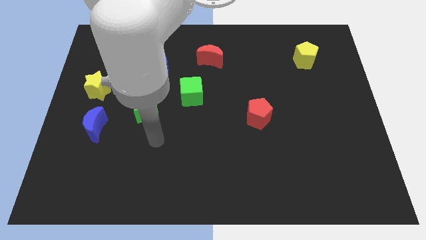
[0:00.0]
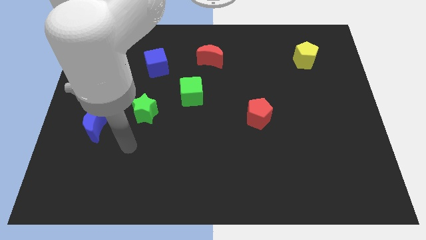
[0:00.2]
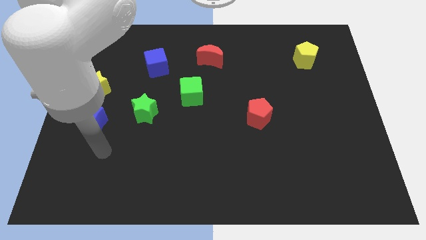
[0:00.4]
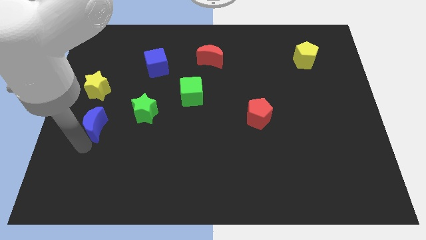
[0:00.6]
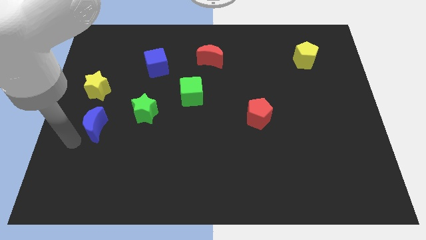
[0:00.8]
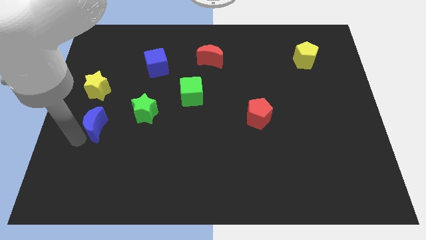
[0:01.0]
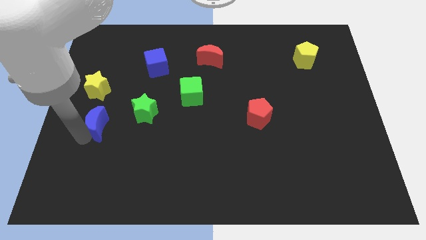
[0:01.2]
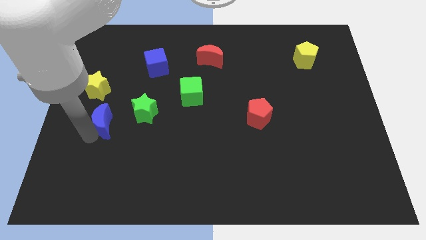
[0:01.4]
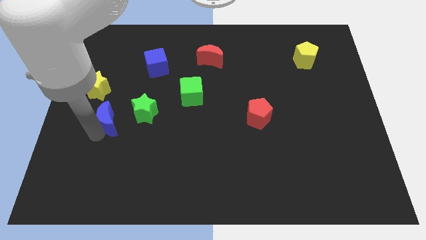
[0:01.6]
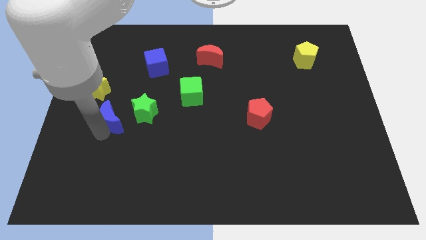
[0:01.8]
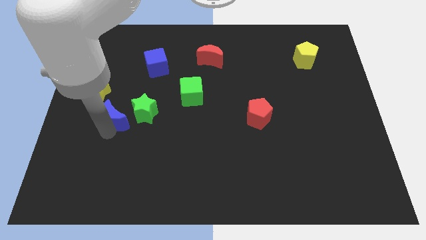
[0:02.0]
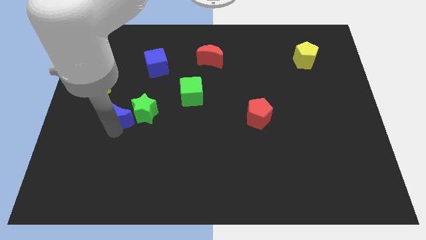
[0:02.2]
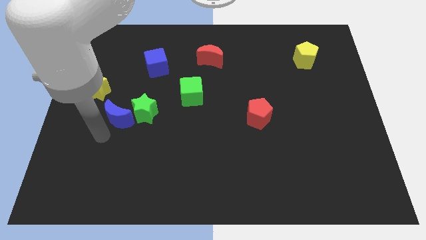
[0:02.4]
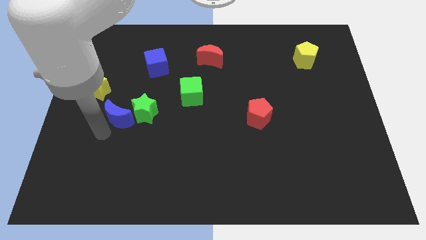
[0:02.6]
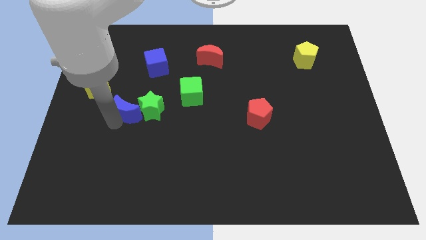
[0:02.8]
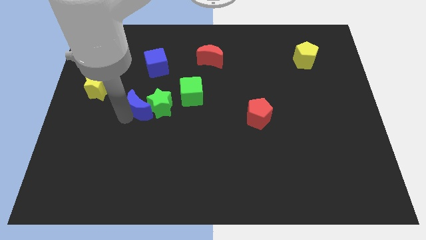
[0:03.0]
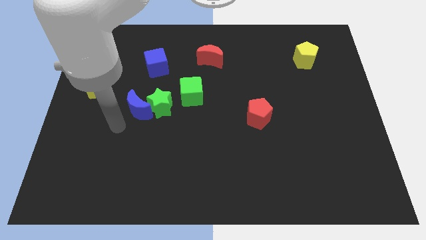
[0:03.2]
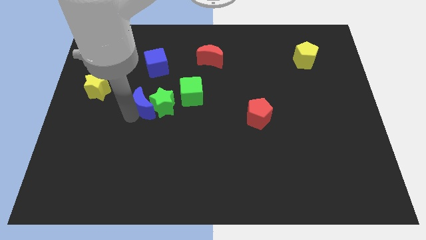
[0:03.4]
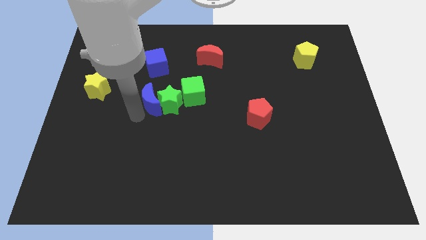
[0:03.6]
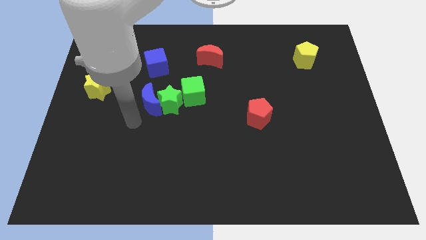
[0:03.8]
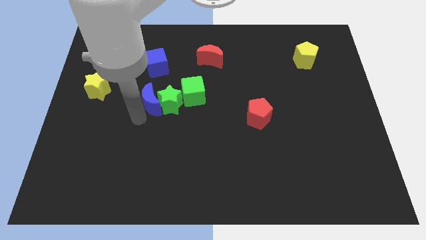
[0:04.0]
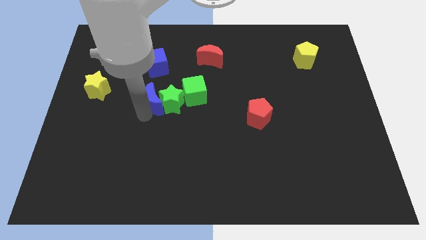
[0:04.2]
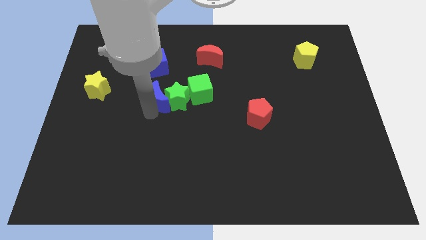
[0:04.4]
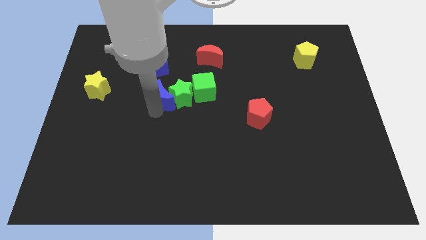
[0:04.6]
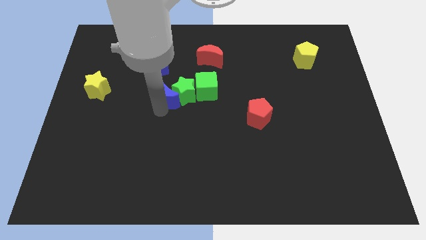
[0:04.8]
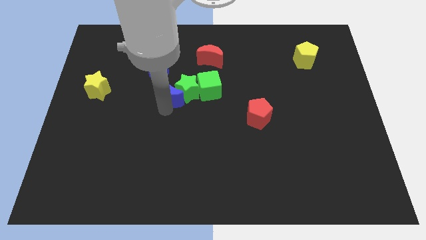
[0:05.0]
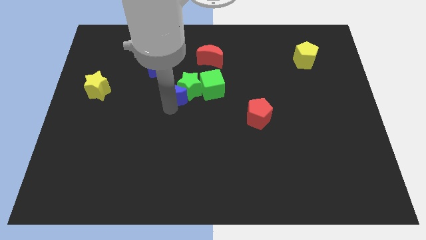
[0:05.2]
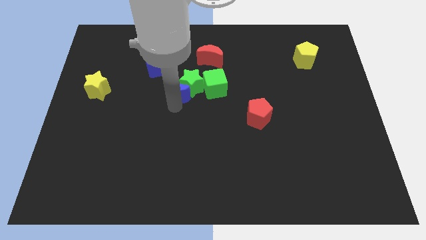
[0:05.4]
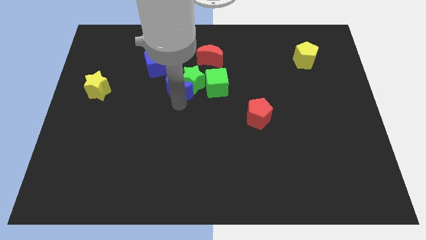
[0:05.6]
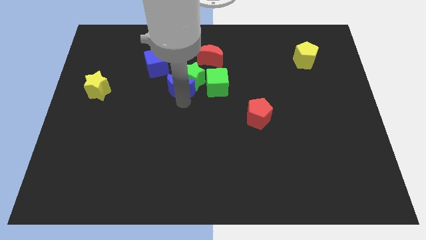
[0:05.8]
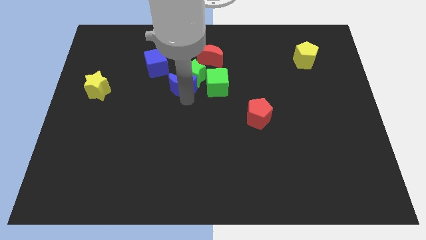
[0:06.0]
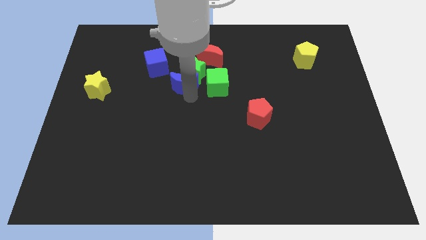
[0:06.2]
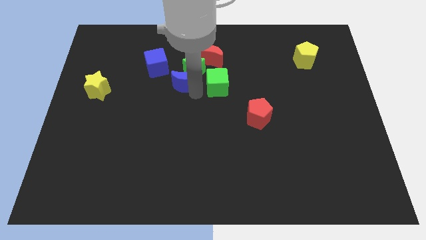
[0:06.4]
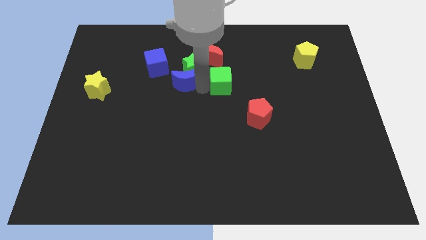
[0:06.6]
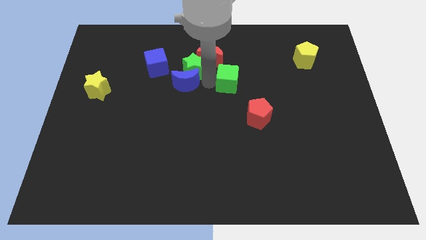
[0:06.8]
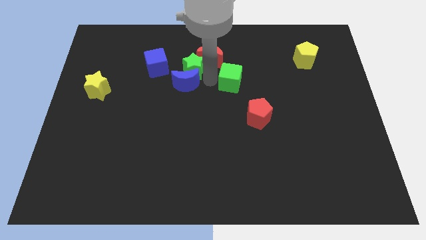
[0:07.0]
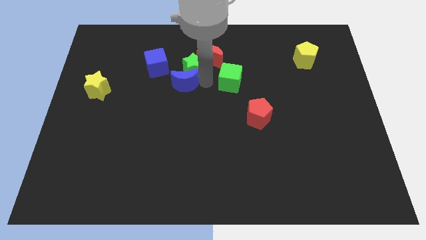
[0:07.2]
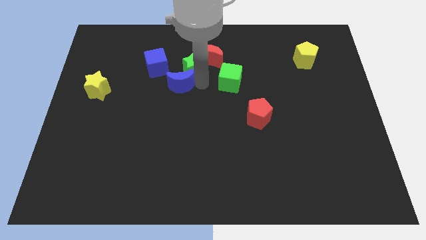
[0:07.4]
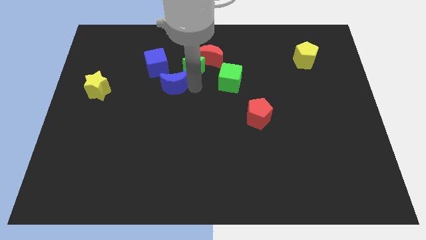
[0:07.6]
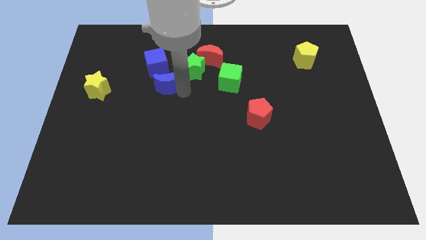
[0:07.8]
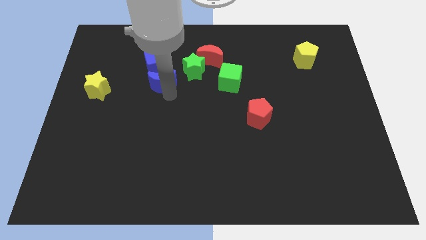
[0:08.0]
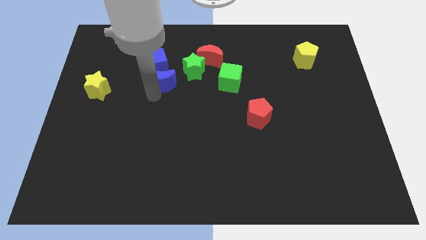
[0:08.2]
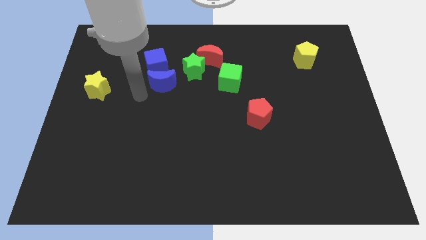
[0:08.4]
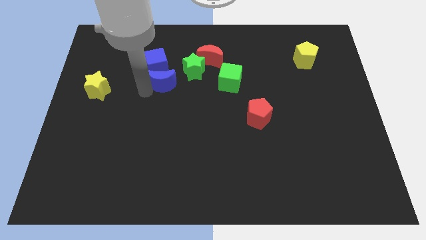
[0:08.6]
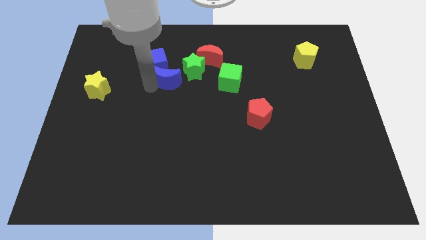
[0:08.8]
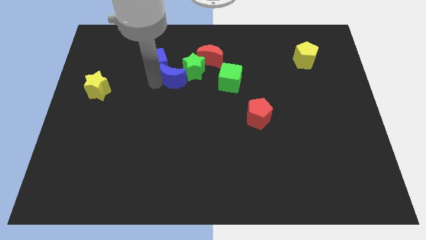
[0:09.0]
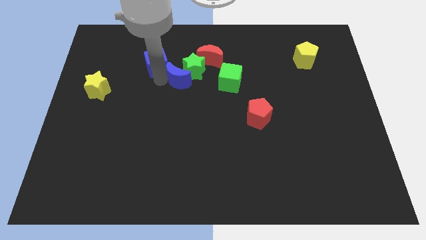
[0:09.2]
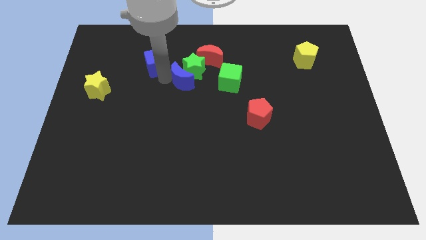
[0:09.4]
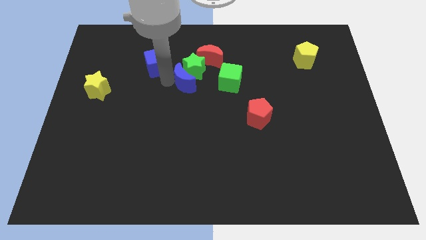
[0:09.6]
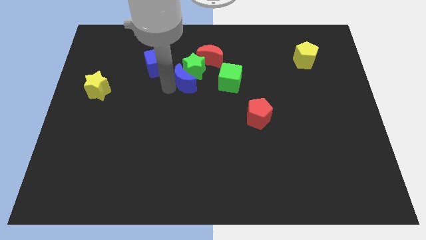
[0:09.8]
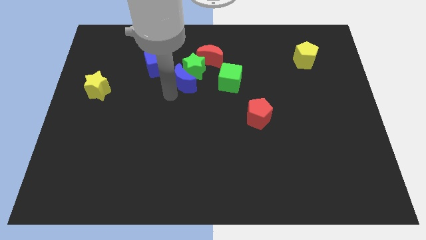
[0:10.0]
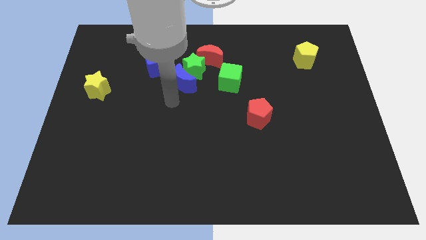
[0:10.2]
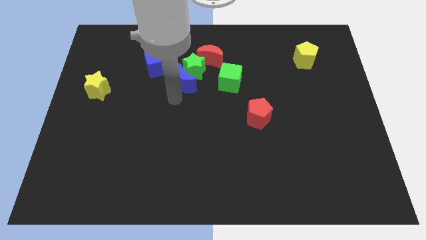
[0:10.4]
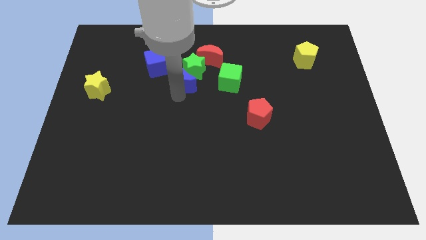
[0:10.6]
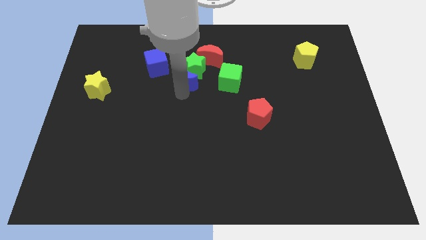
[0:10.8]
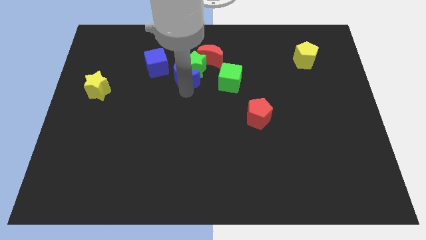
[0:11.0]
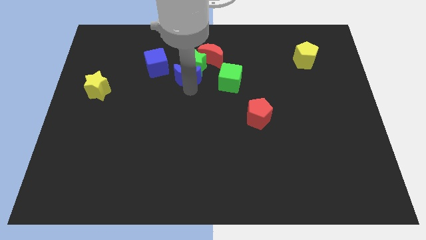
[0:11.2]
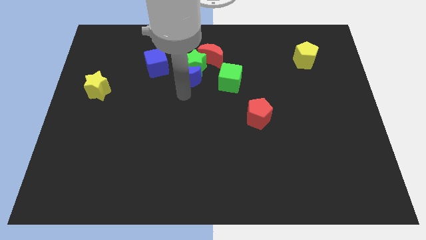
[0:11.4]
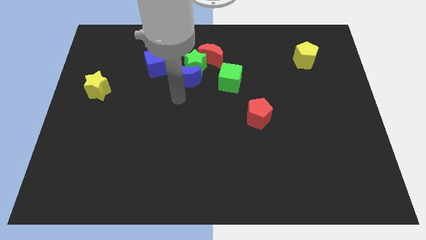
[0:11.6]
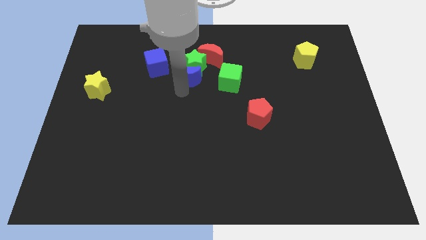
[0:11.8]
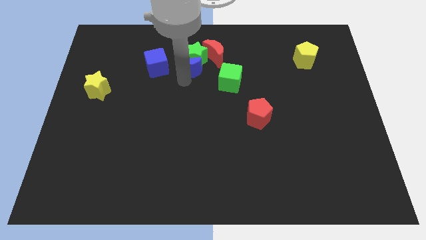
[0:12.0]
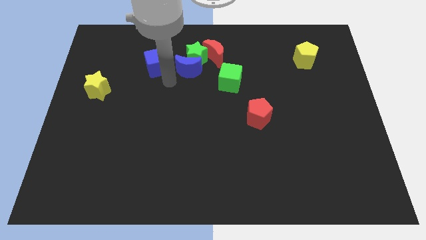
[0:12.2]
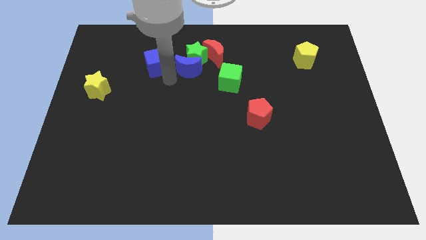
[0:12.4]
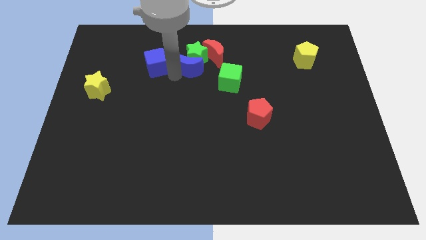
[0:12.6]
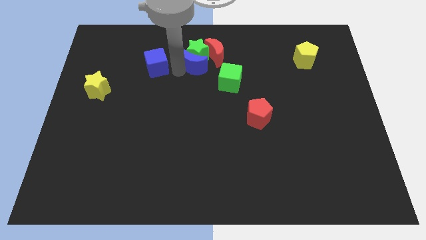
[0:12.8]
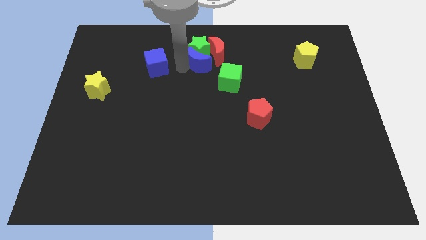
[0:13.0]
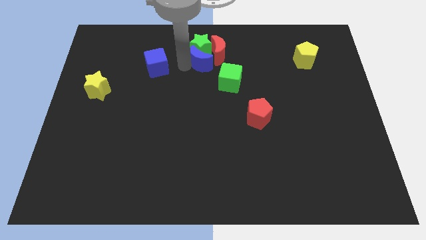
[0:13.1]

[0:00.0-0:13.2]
move the blue moon next to the red moon

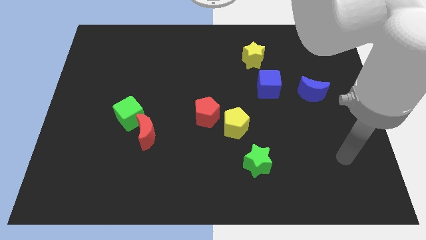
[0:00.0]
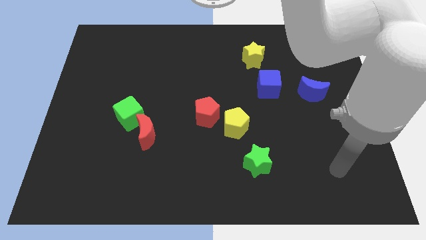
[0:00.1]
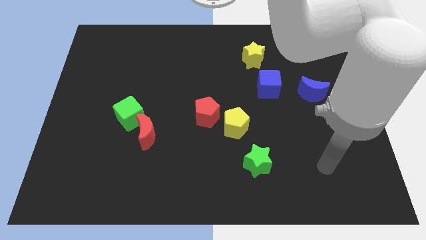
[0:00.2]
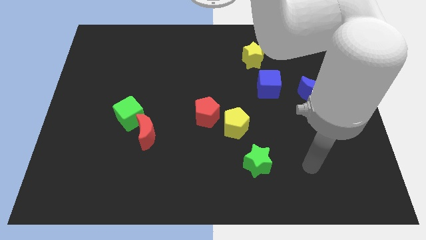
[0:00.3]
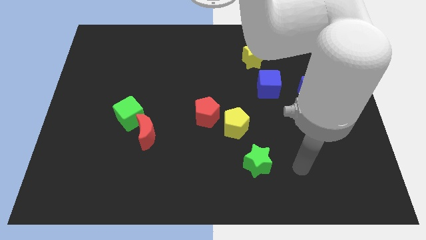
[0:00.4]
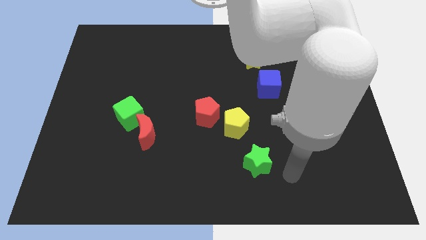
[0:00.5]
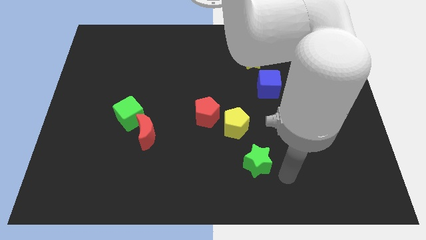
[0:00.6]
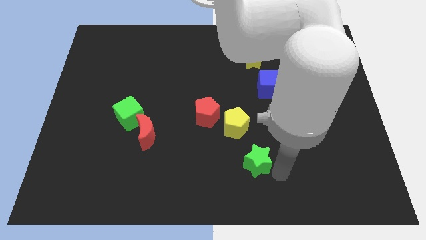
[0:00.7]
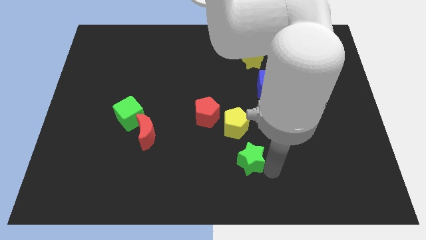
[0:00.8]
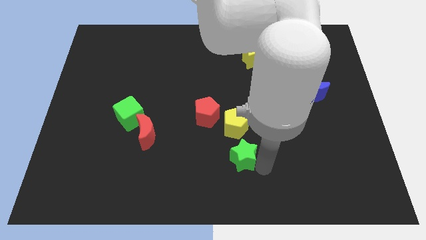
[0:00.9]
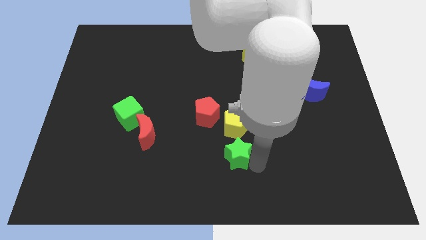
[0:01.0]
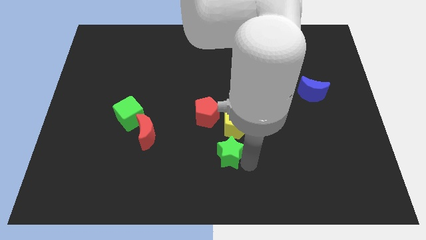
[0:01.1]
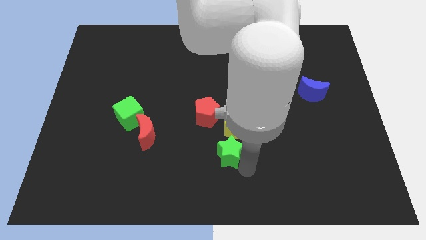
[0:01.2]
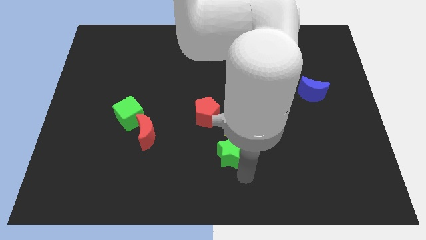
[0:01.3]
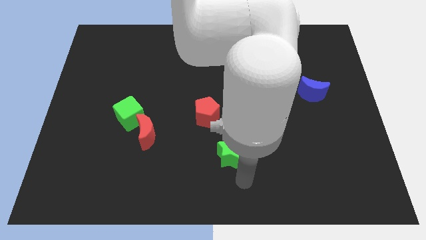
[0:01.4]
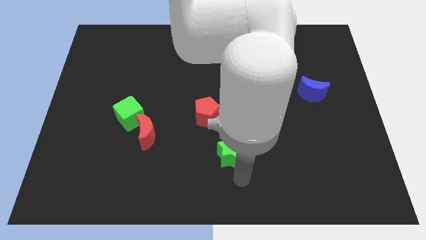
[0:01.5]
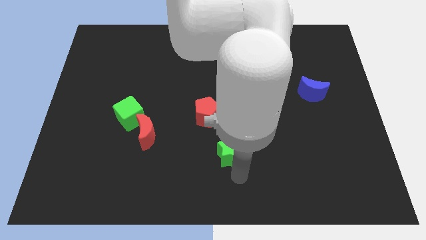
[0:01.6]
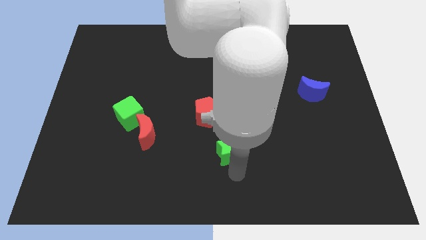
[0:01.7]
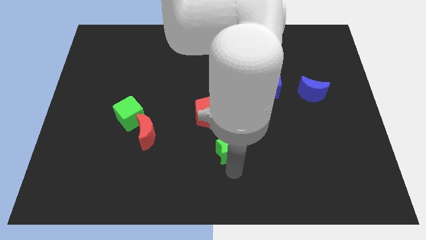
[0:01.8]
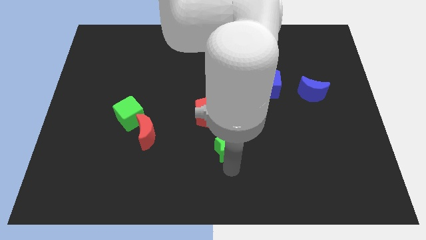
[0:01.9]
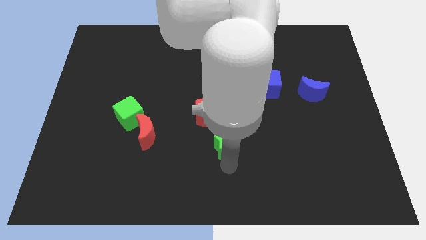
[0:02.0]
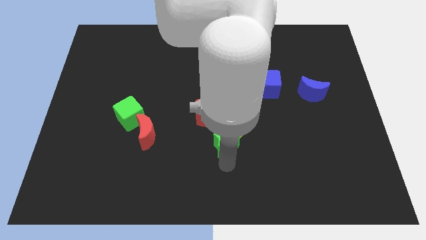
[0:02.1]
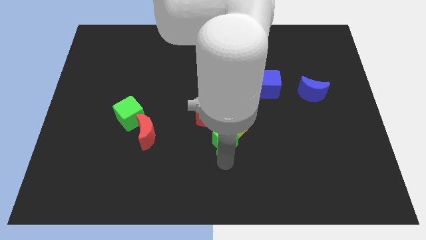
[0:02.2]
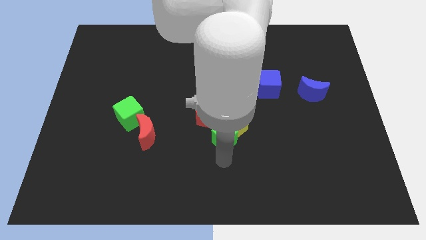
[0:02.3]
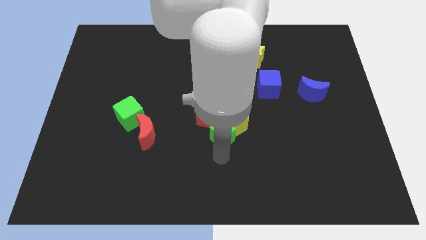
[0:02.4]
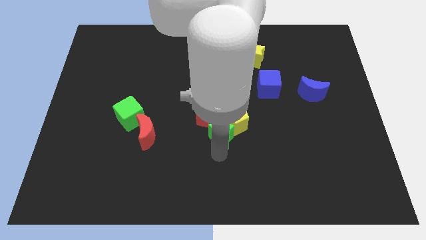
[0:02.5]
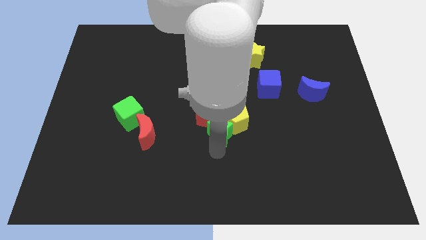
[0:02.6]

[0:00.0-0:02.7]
put the green star close to the red pentagon
